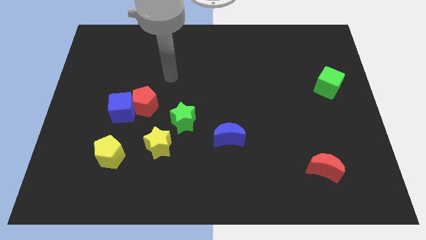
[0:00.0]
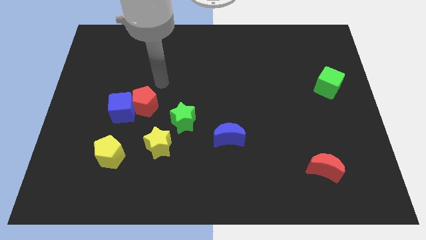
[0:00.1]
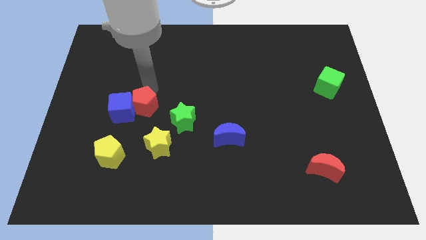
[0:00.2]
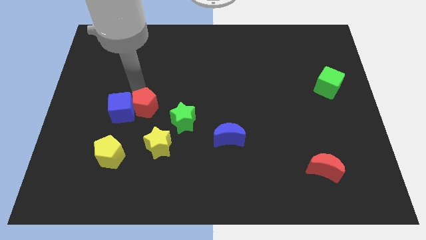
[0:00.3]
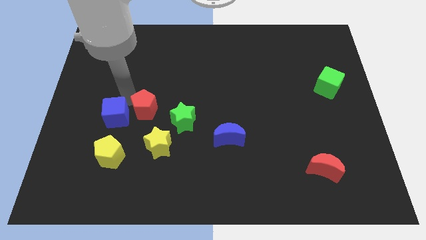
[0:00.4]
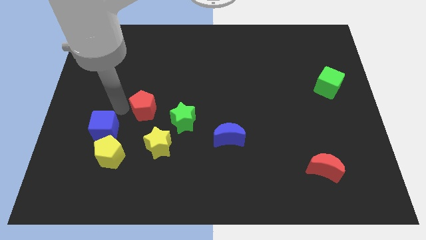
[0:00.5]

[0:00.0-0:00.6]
pull the red pentagon apart from the blue cube

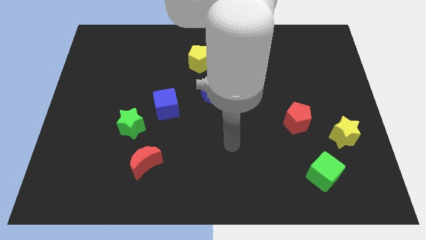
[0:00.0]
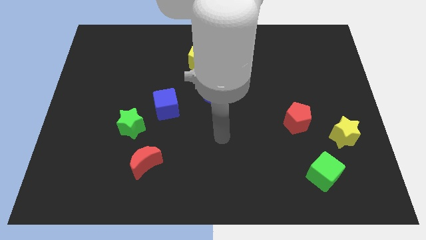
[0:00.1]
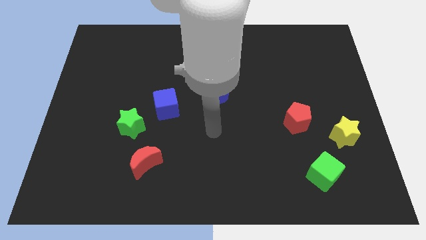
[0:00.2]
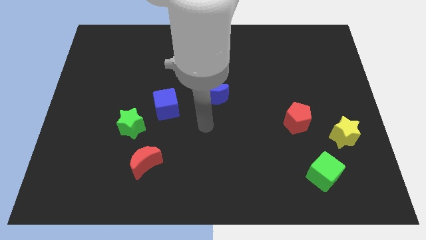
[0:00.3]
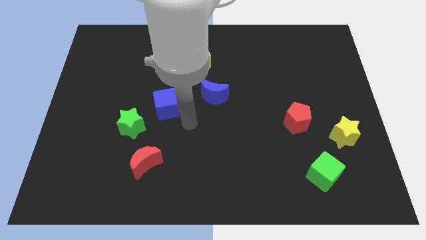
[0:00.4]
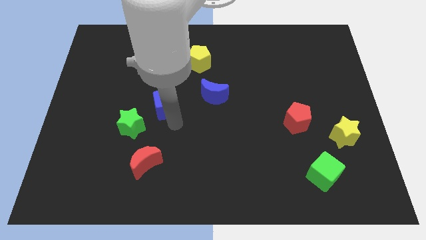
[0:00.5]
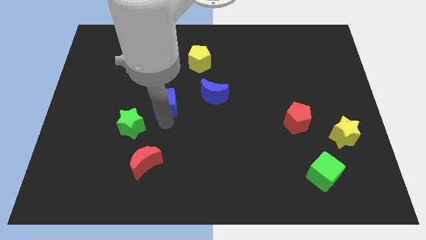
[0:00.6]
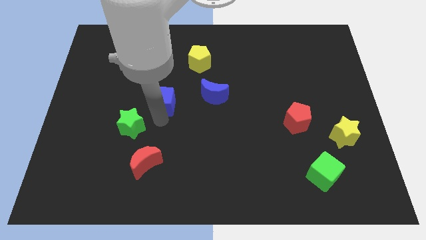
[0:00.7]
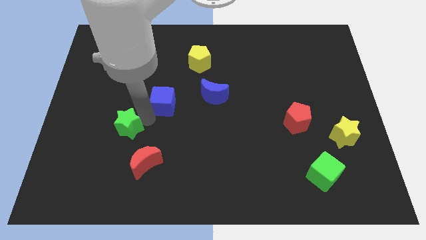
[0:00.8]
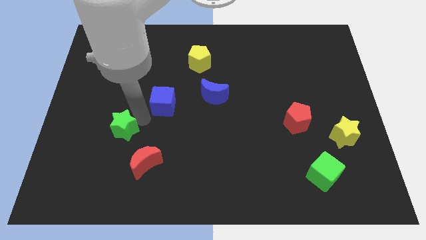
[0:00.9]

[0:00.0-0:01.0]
separate the blue cube from the green star

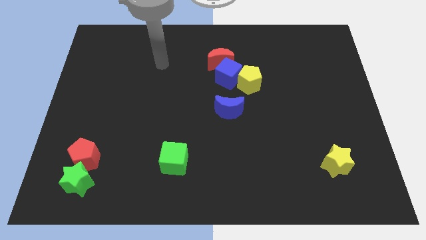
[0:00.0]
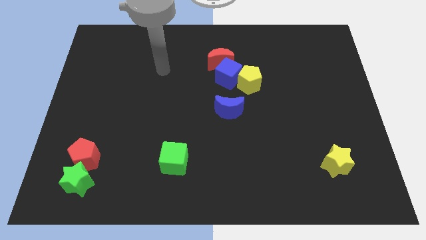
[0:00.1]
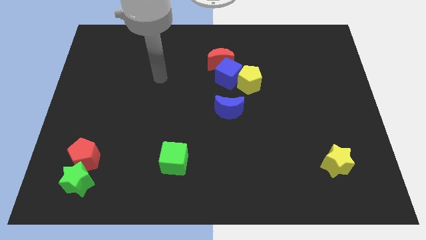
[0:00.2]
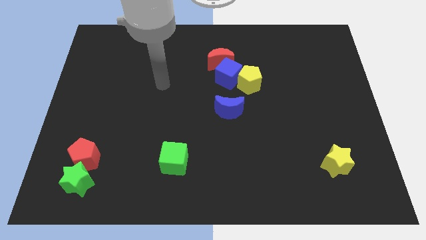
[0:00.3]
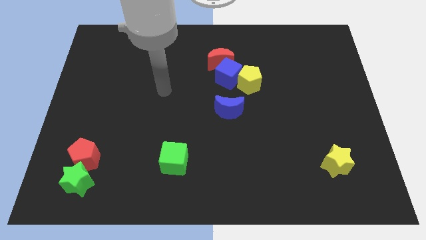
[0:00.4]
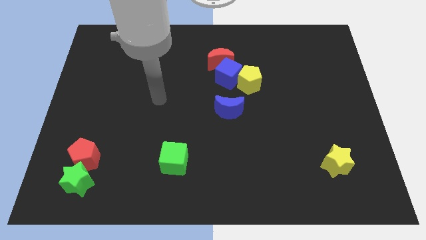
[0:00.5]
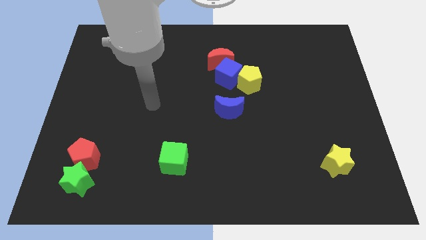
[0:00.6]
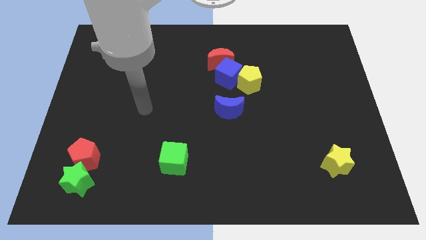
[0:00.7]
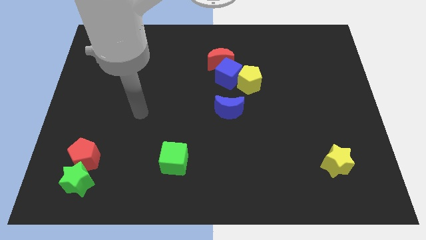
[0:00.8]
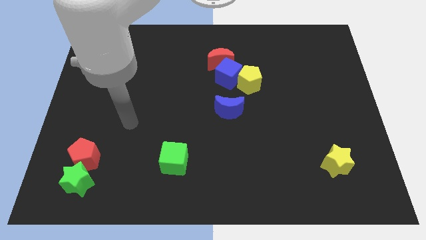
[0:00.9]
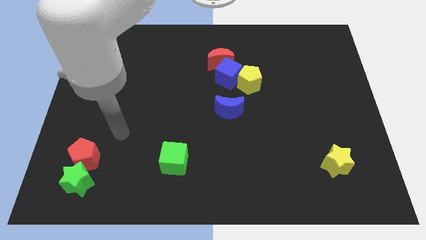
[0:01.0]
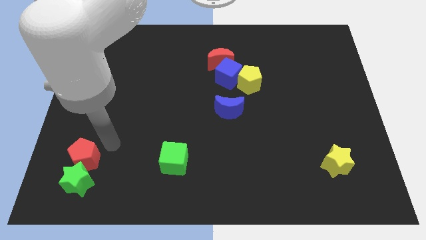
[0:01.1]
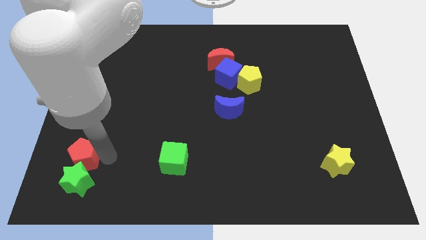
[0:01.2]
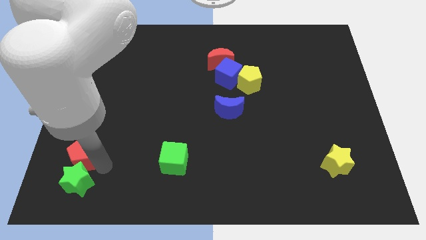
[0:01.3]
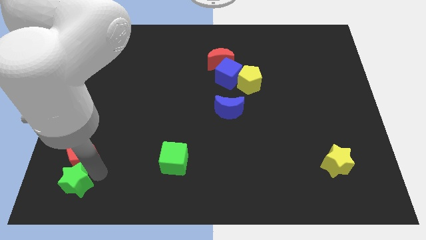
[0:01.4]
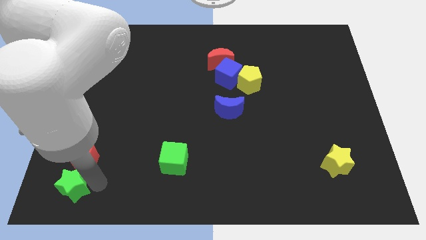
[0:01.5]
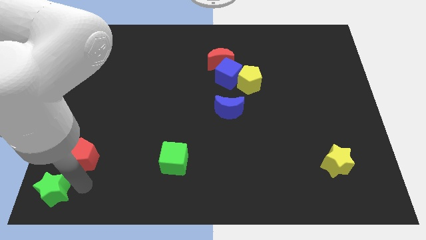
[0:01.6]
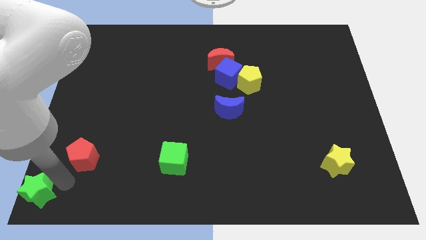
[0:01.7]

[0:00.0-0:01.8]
separate the red pentagon from the green star

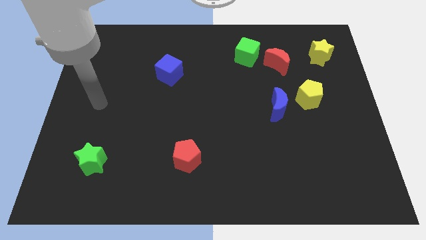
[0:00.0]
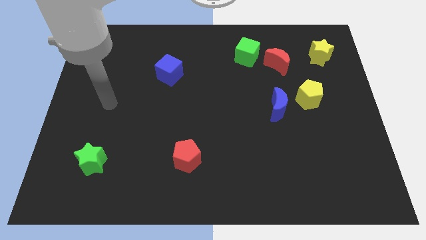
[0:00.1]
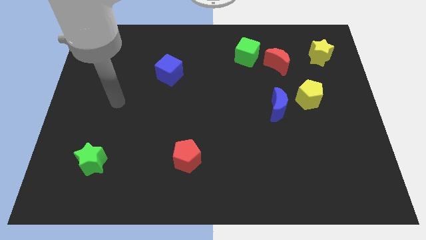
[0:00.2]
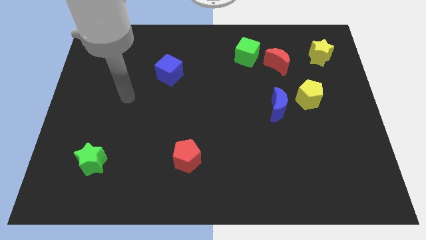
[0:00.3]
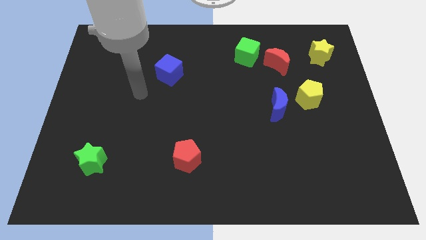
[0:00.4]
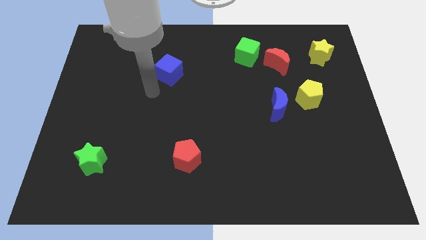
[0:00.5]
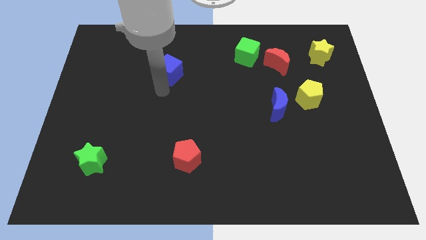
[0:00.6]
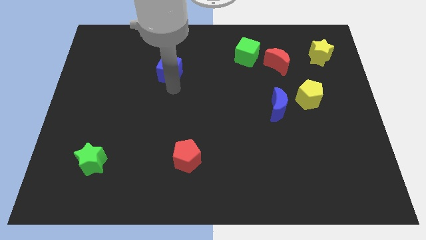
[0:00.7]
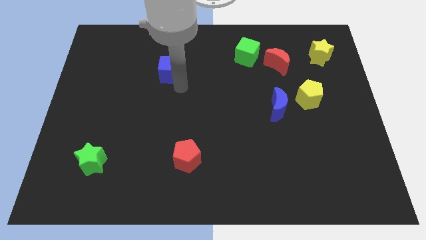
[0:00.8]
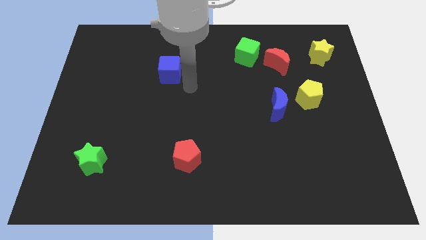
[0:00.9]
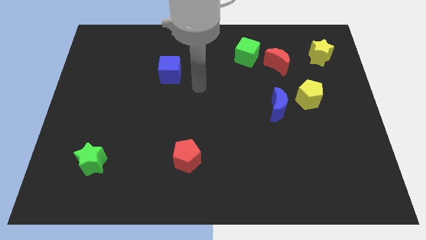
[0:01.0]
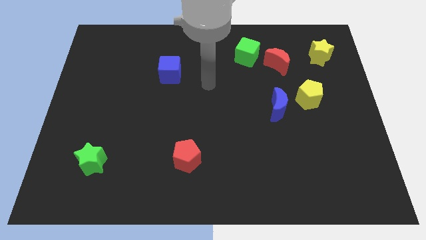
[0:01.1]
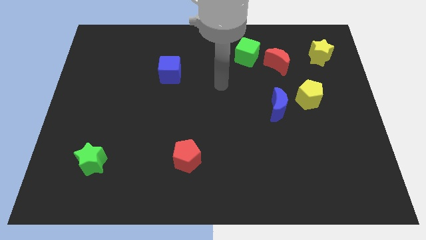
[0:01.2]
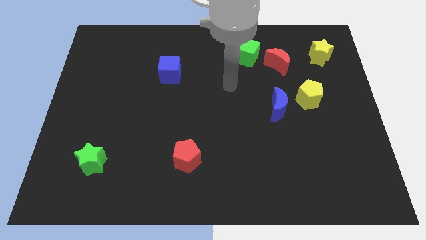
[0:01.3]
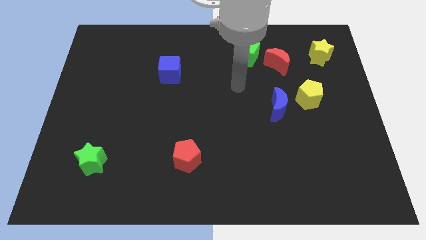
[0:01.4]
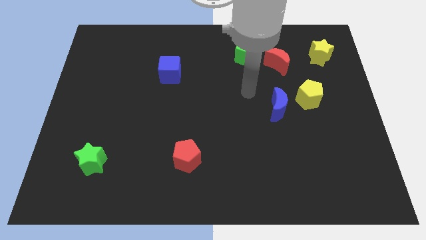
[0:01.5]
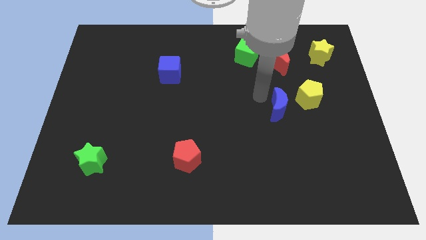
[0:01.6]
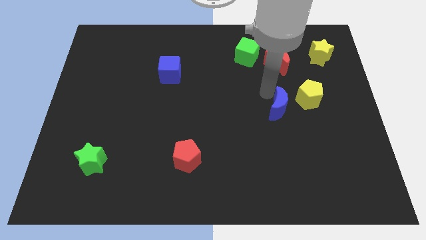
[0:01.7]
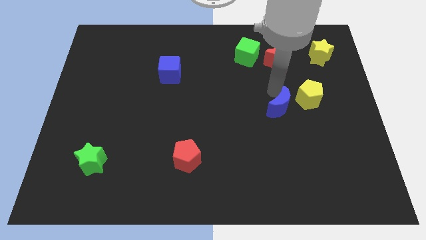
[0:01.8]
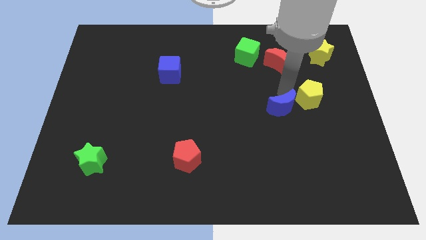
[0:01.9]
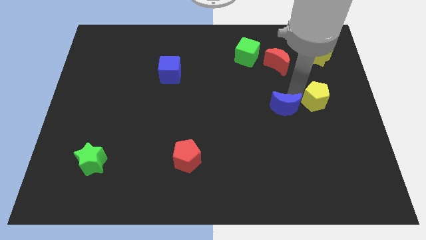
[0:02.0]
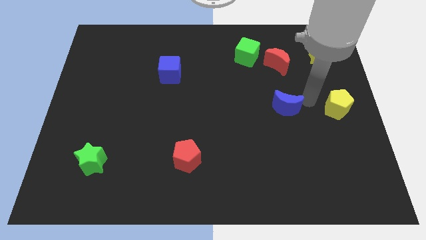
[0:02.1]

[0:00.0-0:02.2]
separate the blue moon from the yellow pentagon

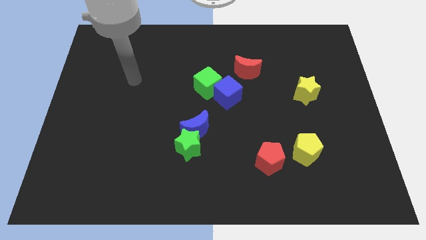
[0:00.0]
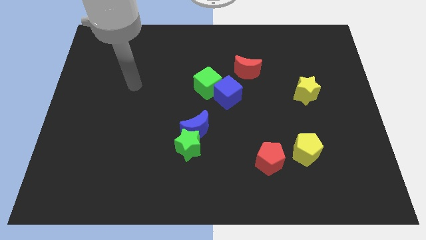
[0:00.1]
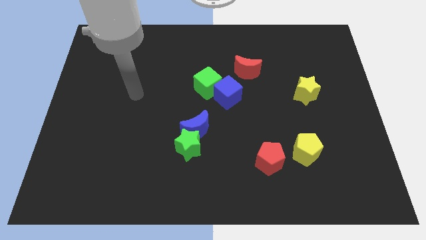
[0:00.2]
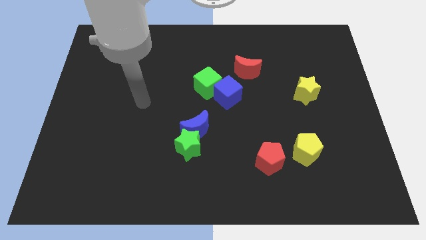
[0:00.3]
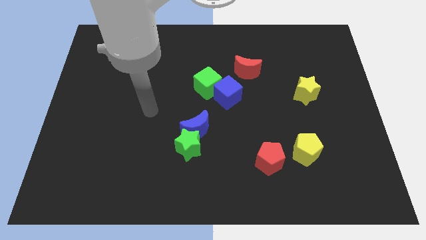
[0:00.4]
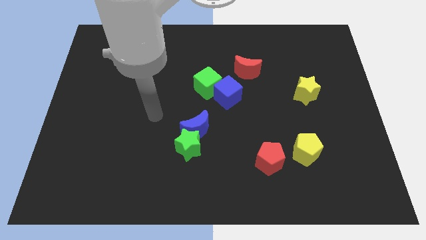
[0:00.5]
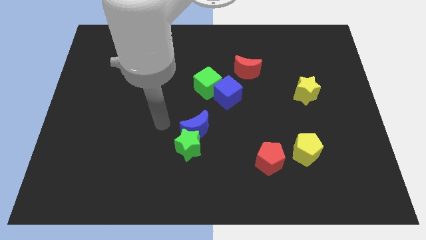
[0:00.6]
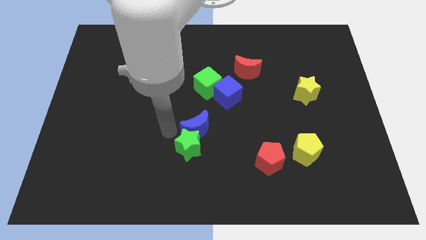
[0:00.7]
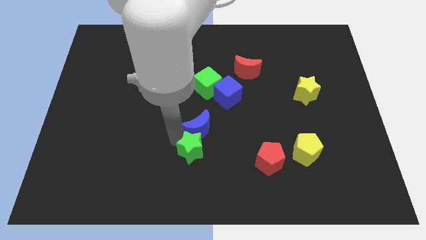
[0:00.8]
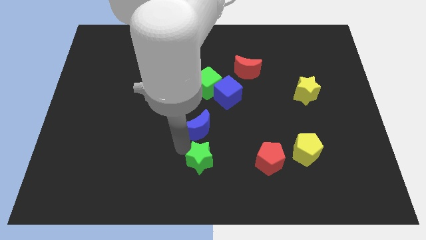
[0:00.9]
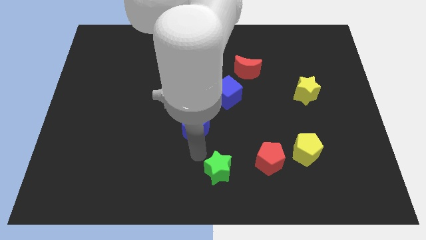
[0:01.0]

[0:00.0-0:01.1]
pull the blue moon apart from the green star

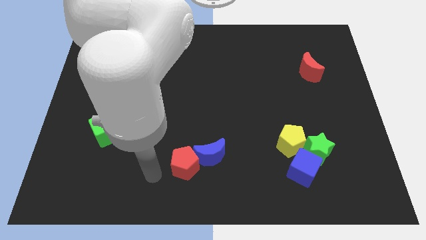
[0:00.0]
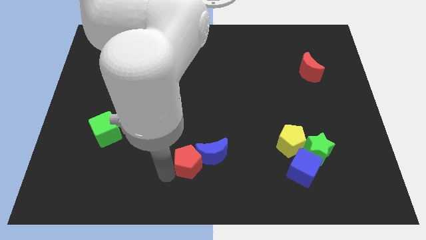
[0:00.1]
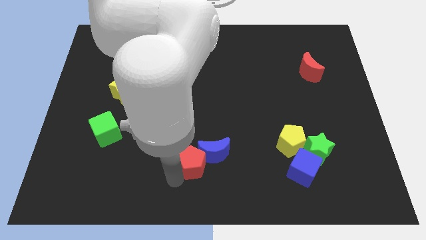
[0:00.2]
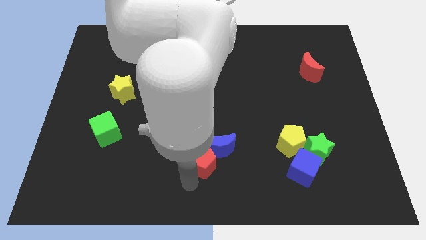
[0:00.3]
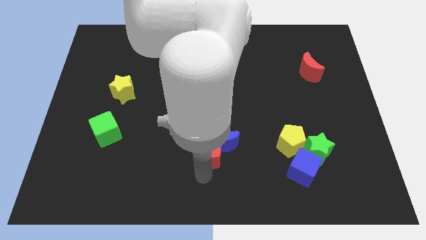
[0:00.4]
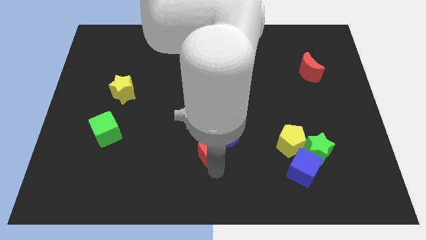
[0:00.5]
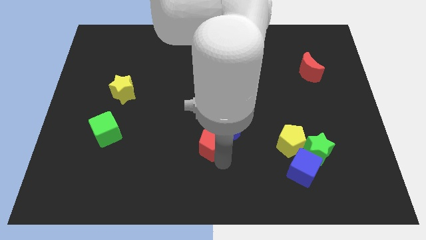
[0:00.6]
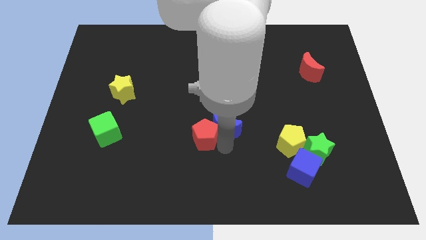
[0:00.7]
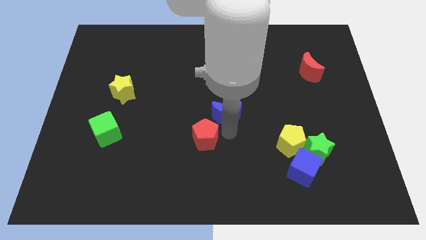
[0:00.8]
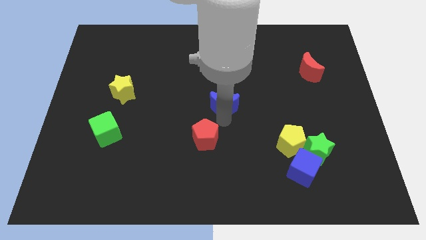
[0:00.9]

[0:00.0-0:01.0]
move the red pentagon away from the blue moon

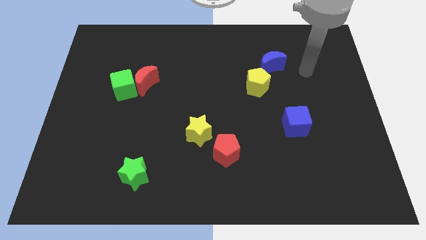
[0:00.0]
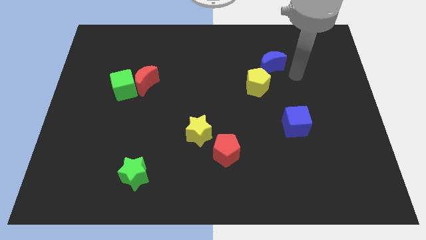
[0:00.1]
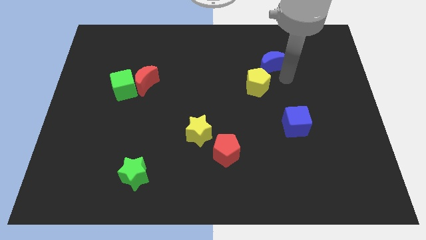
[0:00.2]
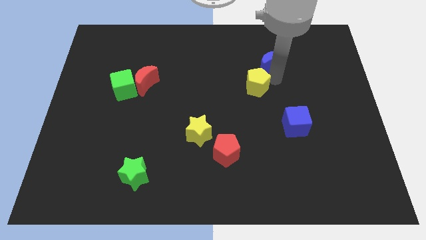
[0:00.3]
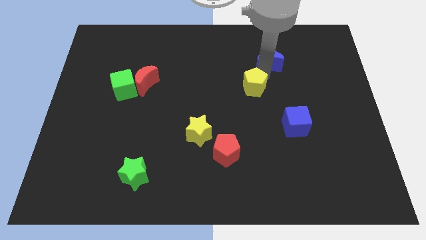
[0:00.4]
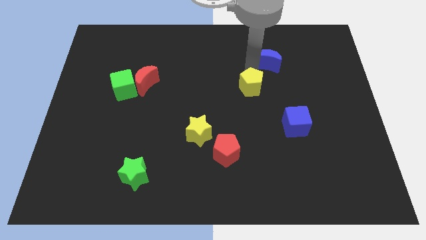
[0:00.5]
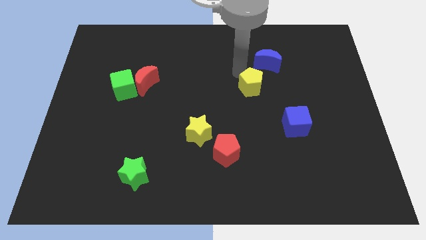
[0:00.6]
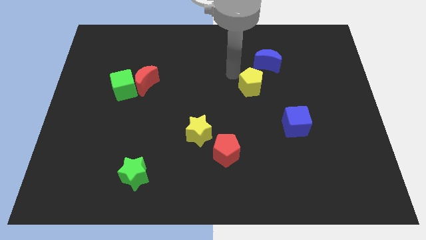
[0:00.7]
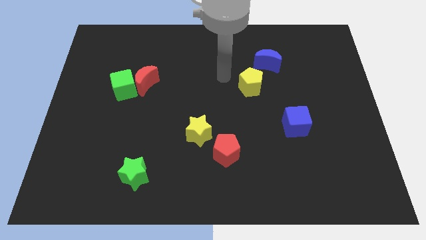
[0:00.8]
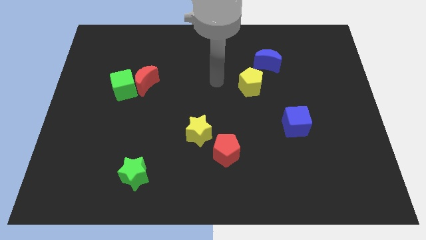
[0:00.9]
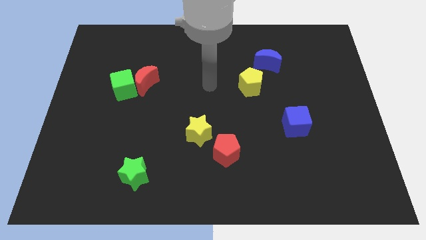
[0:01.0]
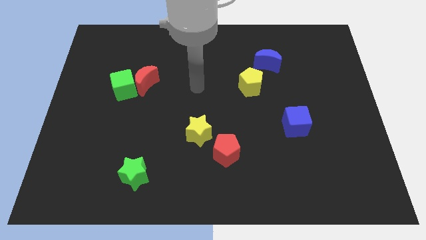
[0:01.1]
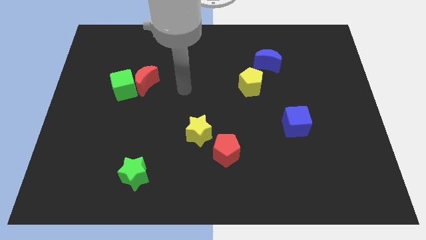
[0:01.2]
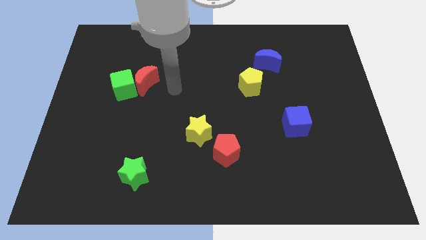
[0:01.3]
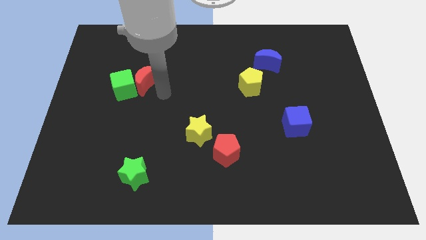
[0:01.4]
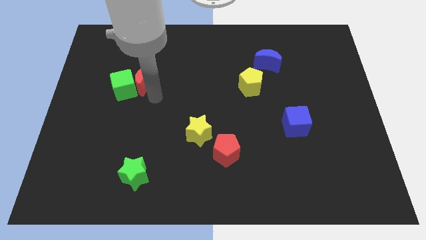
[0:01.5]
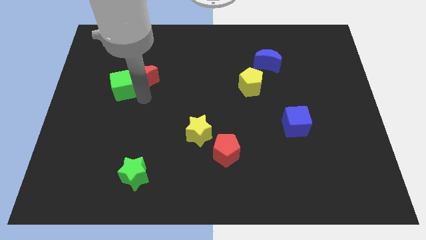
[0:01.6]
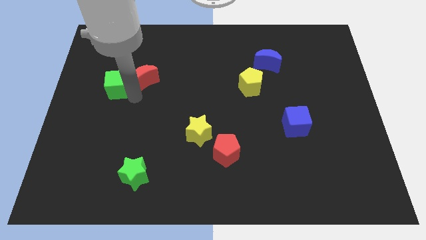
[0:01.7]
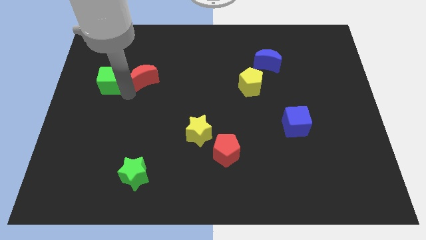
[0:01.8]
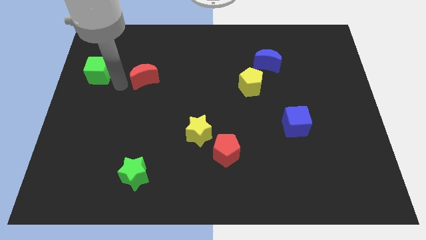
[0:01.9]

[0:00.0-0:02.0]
separate the red moon from the green cube
